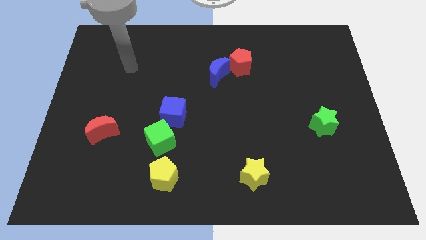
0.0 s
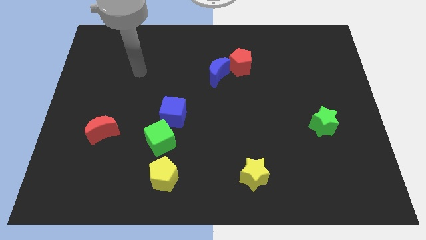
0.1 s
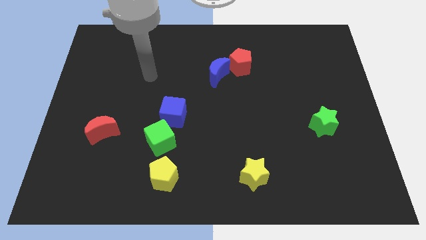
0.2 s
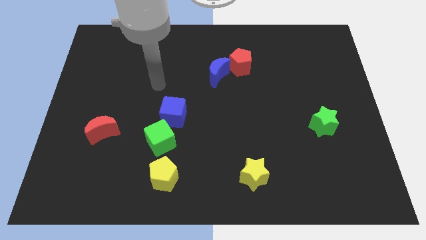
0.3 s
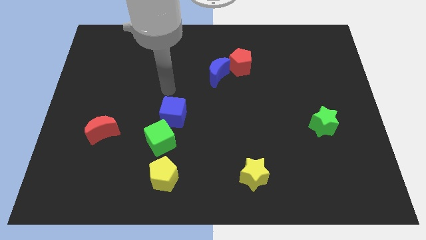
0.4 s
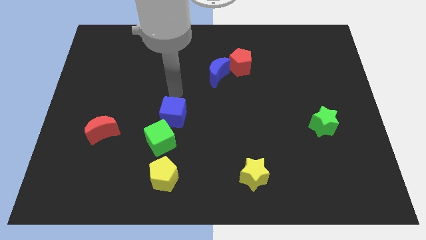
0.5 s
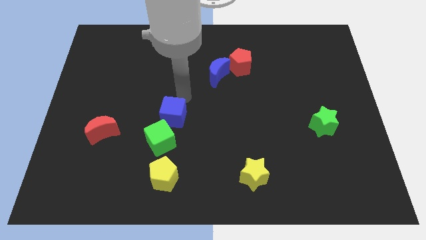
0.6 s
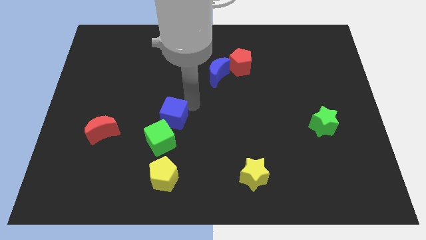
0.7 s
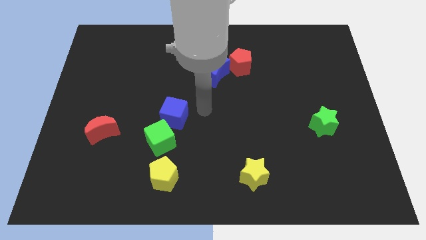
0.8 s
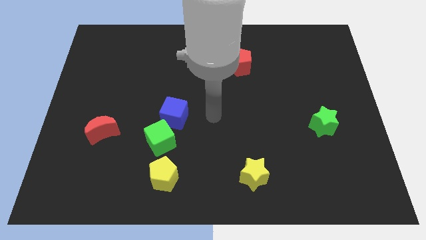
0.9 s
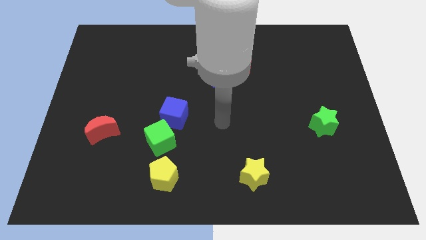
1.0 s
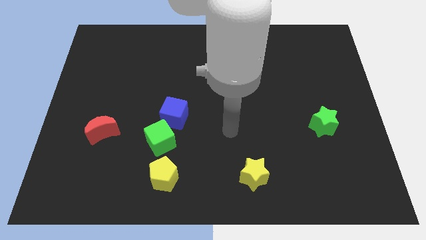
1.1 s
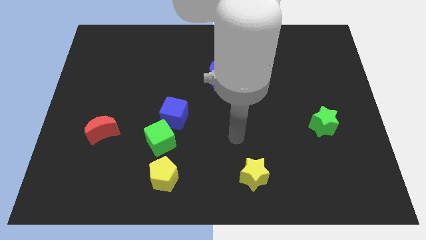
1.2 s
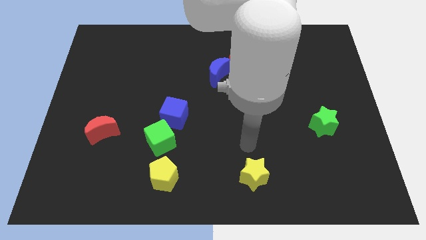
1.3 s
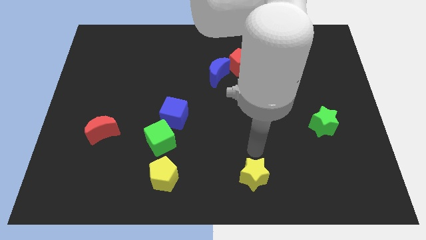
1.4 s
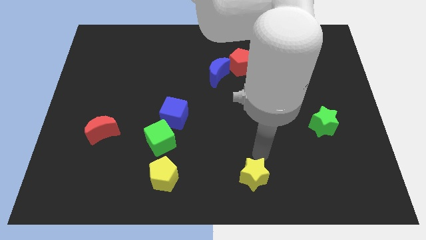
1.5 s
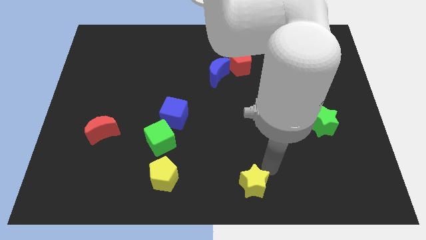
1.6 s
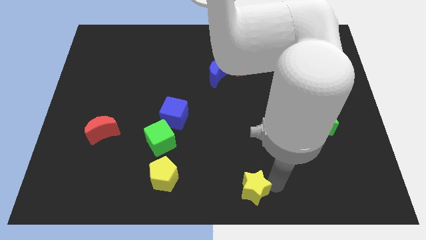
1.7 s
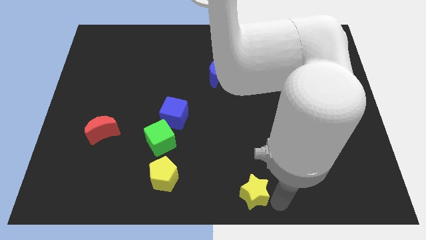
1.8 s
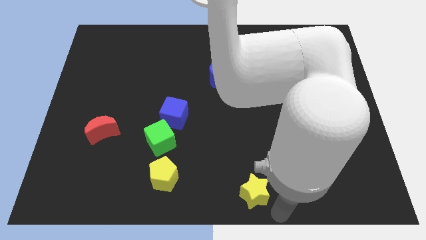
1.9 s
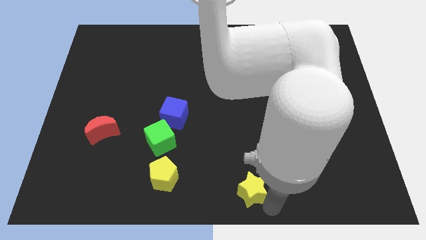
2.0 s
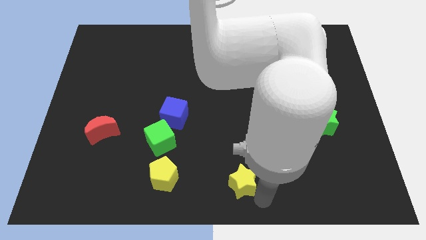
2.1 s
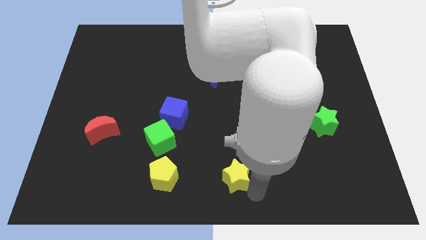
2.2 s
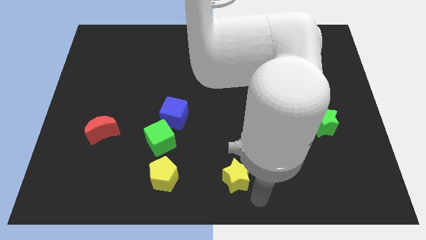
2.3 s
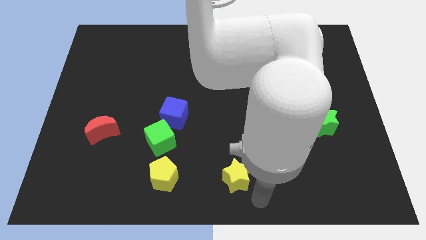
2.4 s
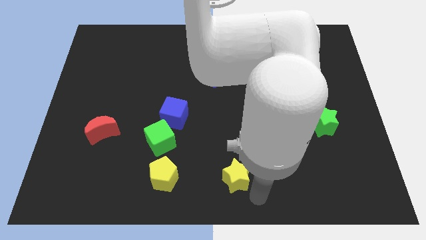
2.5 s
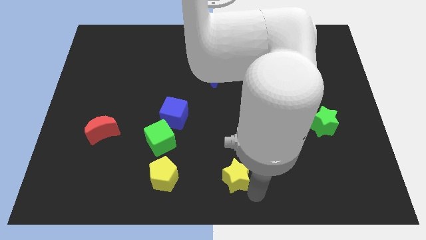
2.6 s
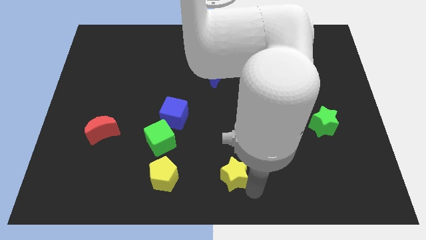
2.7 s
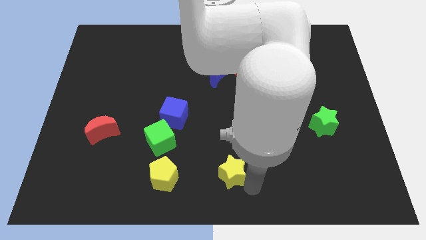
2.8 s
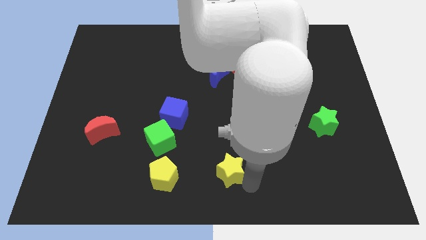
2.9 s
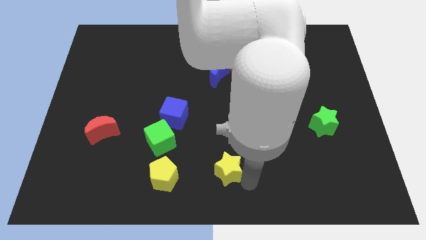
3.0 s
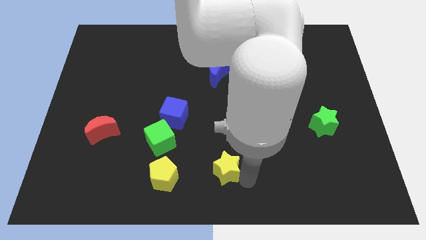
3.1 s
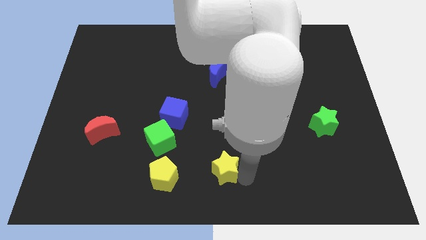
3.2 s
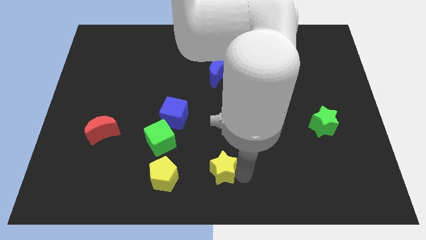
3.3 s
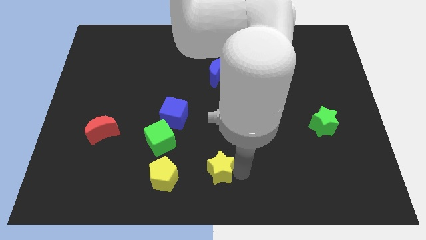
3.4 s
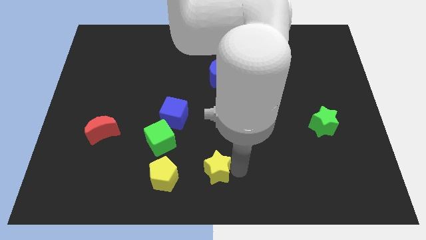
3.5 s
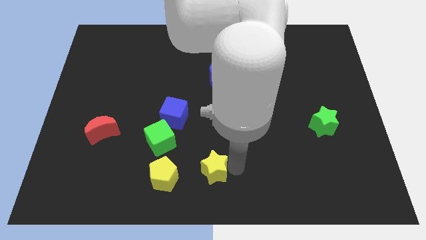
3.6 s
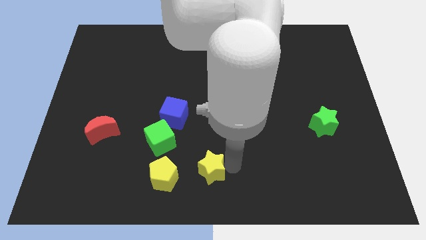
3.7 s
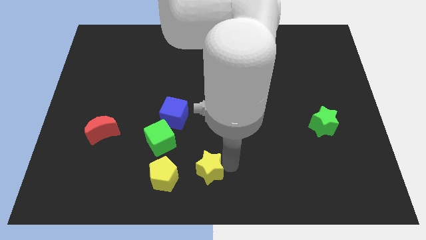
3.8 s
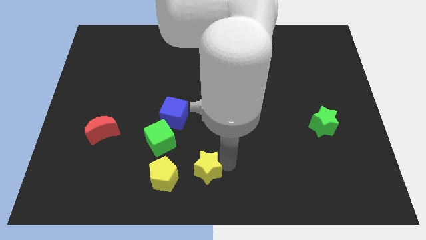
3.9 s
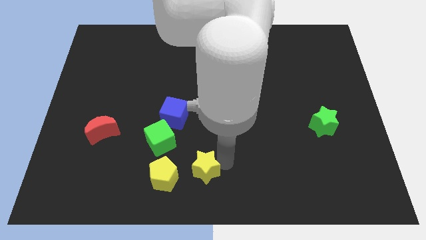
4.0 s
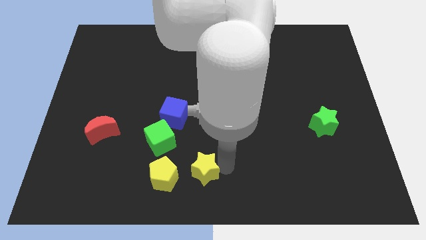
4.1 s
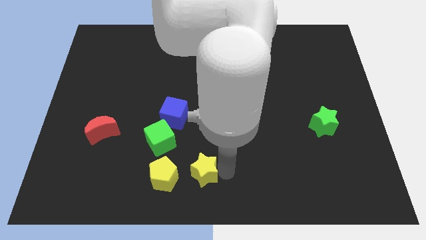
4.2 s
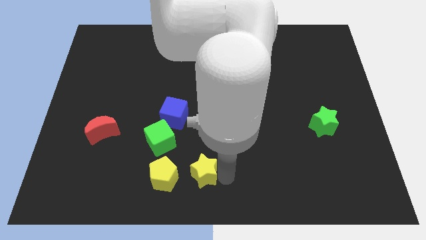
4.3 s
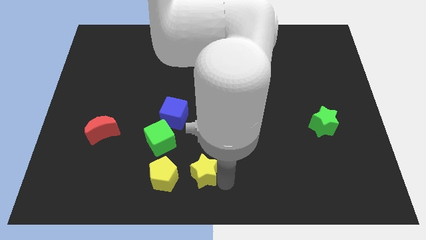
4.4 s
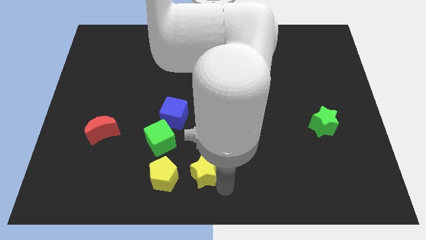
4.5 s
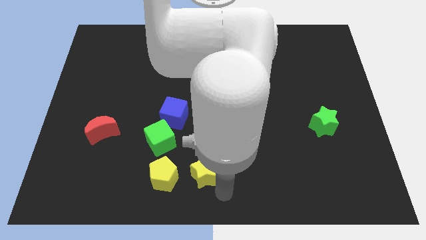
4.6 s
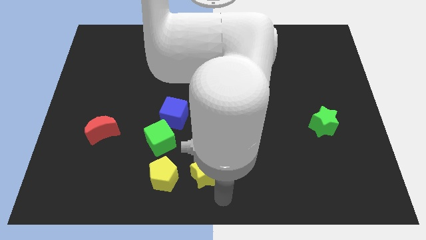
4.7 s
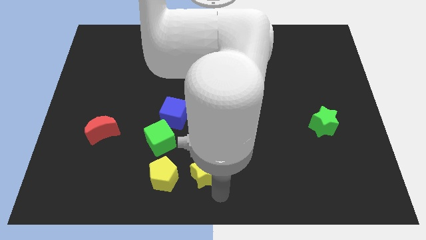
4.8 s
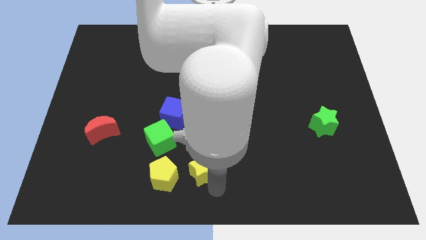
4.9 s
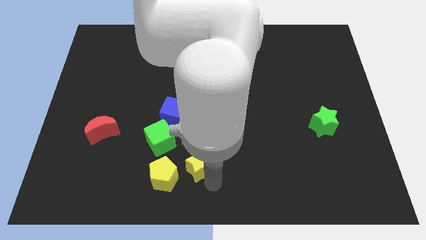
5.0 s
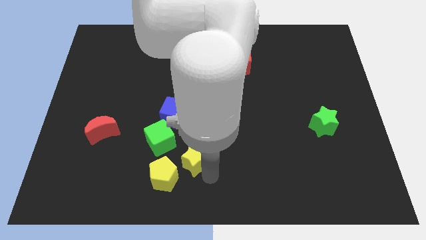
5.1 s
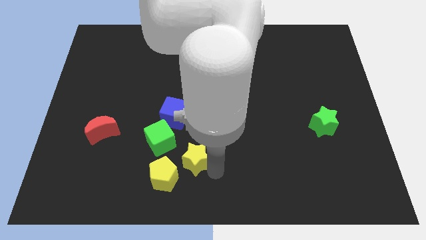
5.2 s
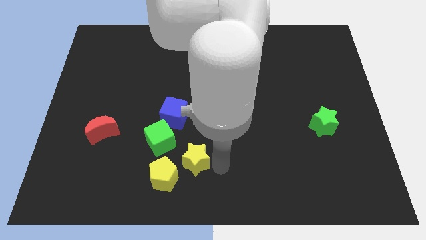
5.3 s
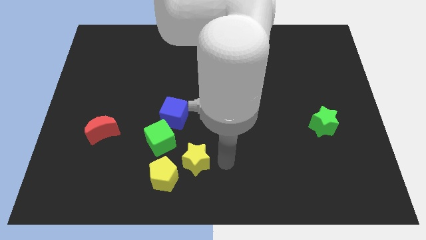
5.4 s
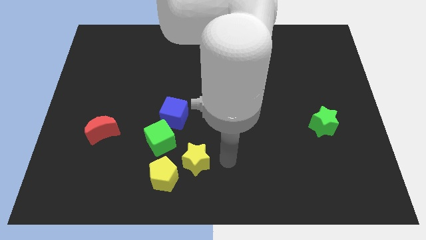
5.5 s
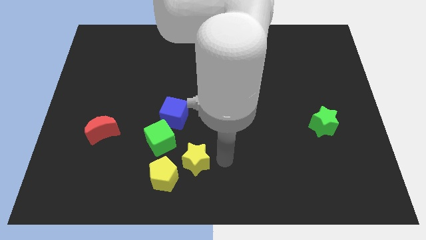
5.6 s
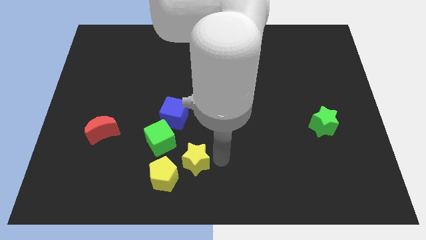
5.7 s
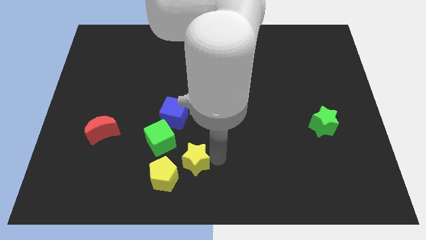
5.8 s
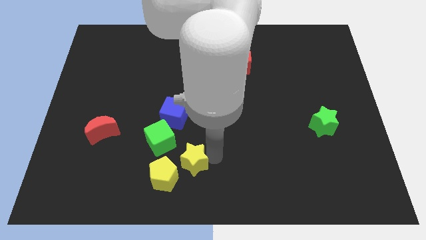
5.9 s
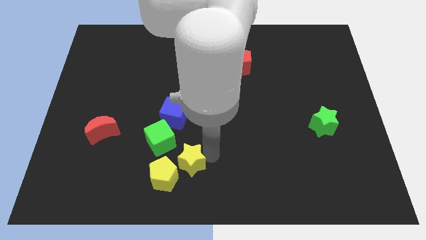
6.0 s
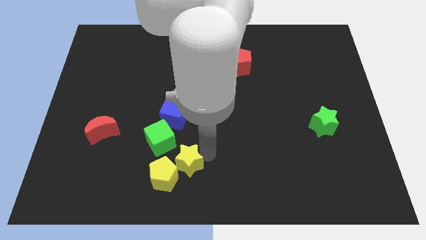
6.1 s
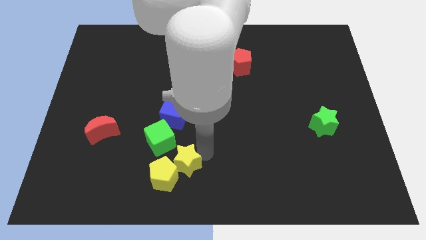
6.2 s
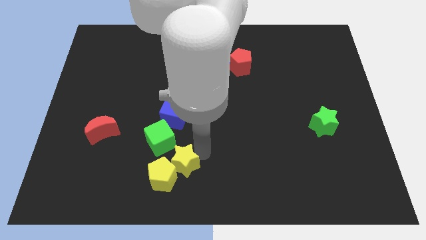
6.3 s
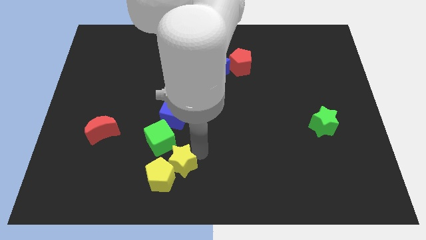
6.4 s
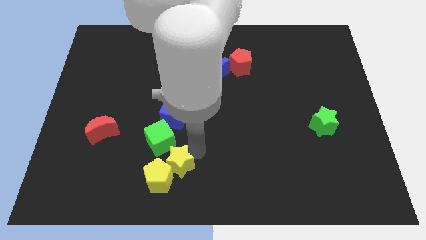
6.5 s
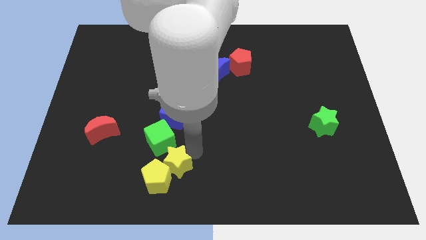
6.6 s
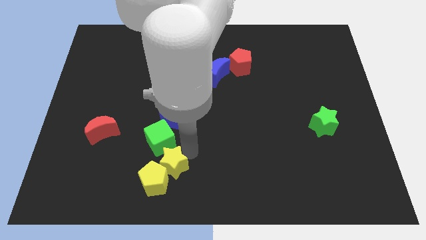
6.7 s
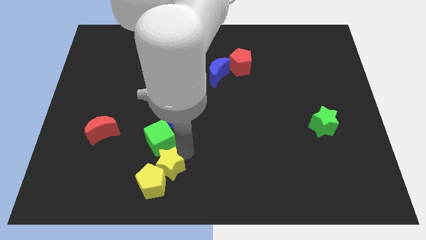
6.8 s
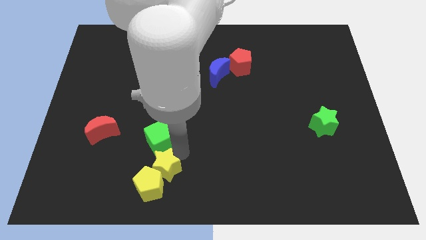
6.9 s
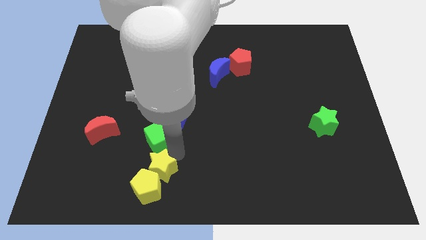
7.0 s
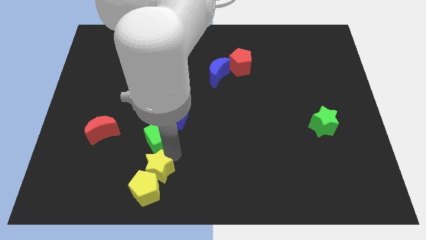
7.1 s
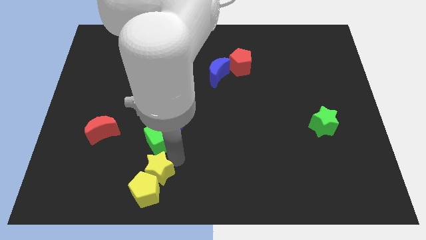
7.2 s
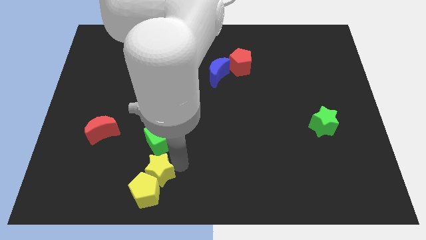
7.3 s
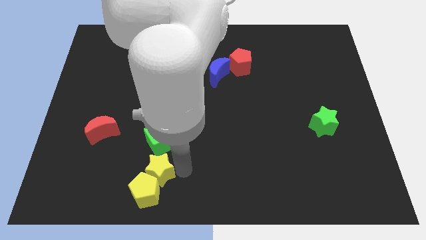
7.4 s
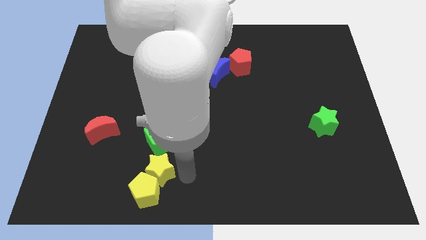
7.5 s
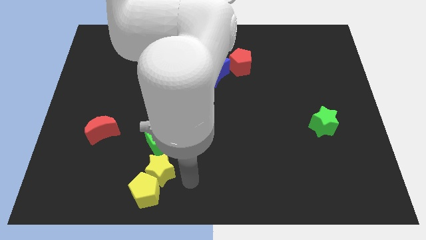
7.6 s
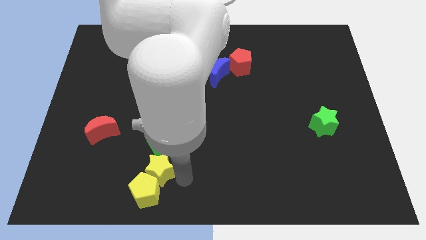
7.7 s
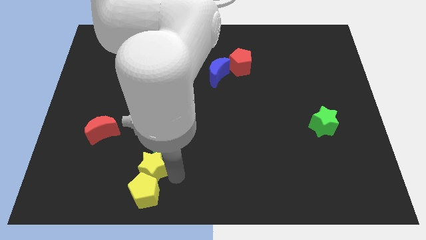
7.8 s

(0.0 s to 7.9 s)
move the yellow star left
